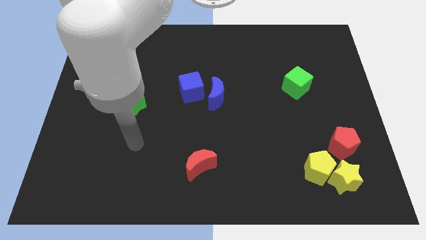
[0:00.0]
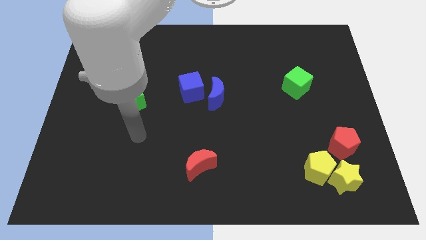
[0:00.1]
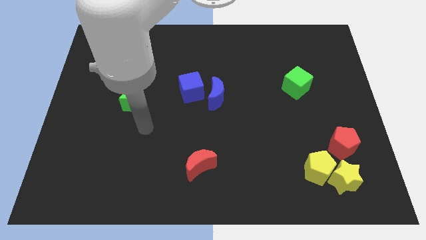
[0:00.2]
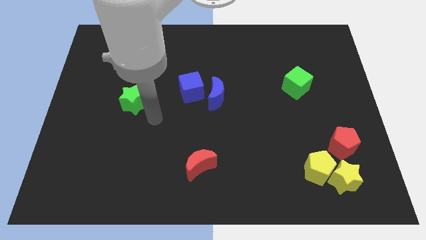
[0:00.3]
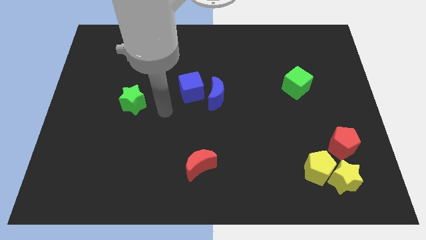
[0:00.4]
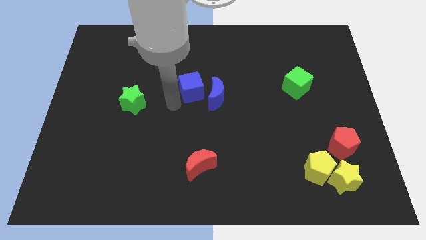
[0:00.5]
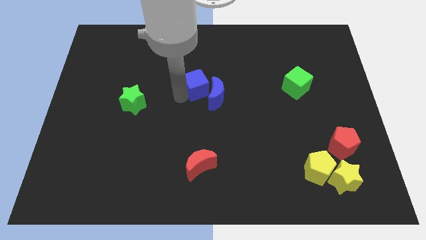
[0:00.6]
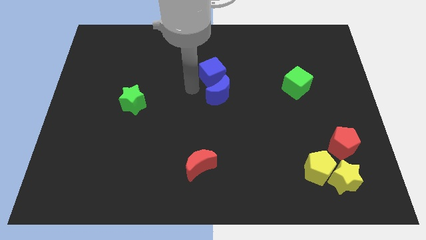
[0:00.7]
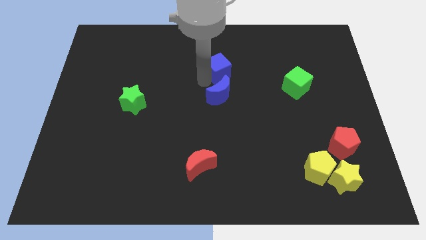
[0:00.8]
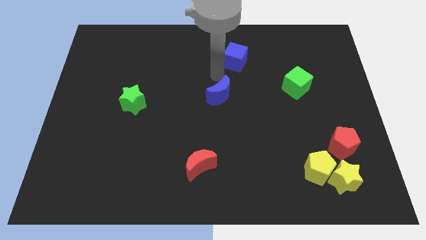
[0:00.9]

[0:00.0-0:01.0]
pull the blue moon apart from the blue cube

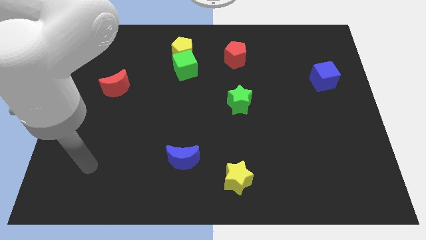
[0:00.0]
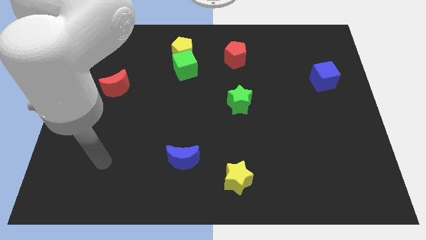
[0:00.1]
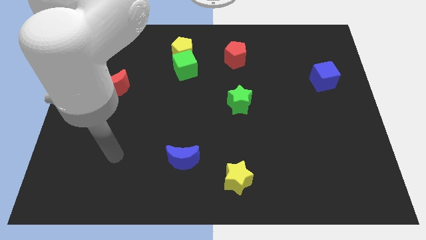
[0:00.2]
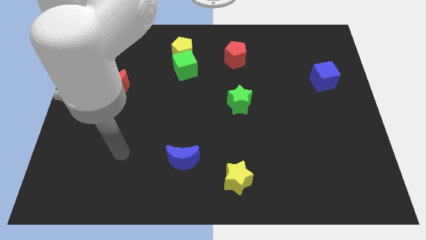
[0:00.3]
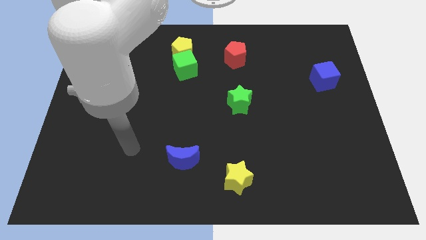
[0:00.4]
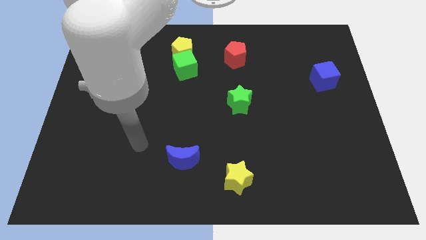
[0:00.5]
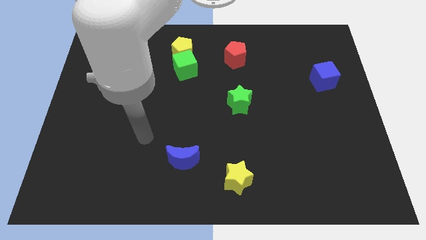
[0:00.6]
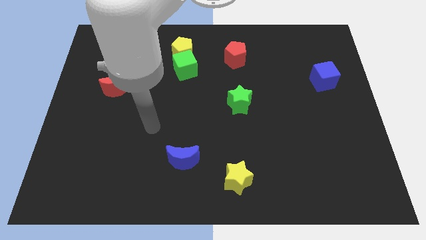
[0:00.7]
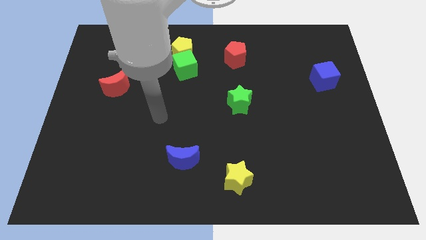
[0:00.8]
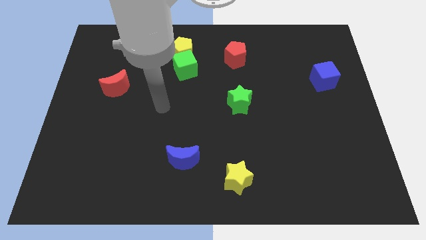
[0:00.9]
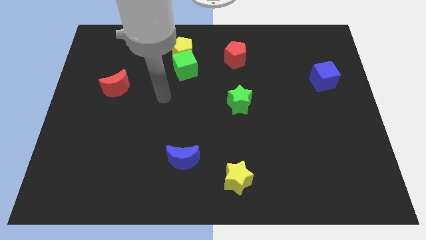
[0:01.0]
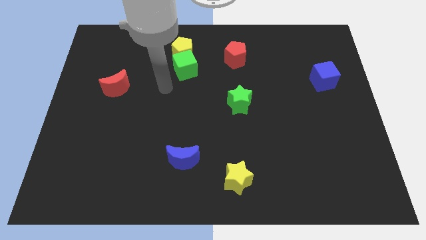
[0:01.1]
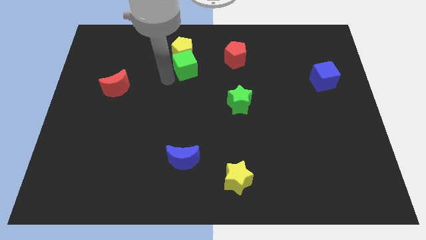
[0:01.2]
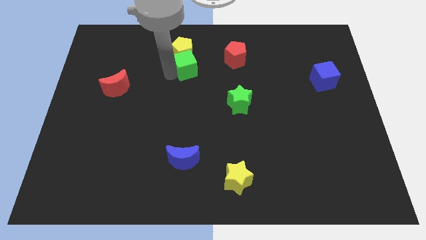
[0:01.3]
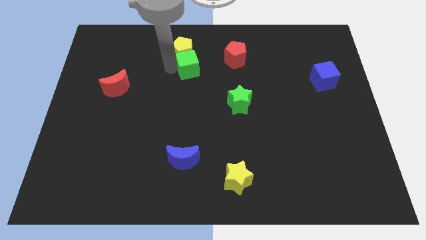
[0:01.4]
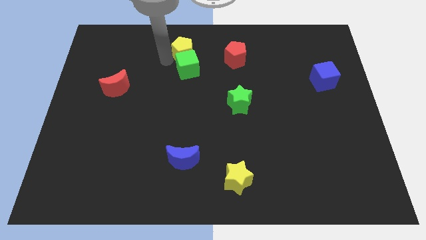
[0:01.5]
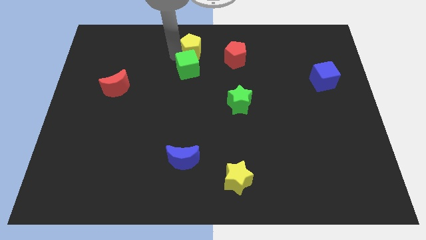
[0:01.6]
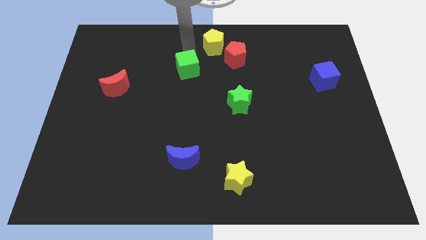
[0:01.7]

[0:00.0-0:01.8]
move the green cube away from the yellow pentagon

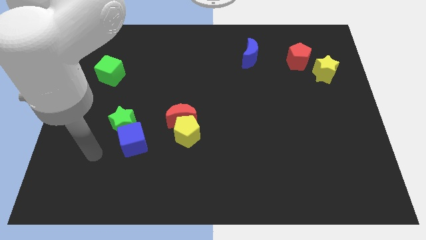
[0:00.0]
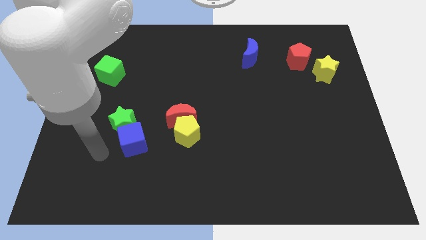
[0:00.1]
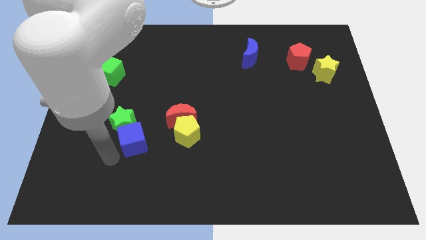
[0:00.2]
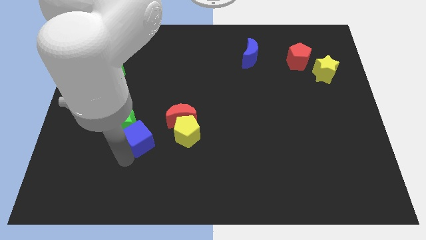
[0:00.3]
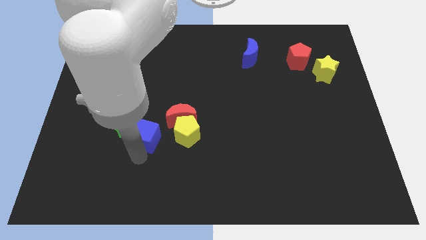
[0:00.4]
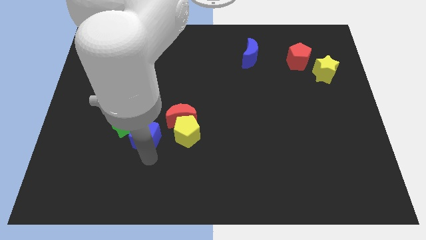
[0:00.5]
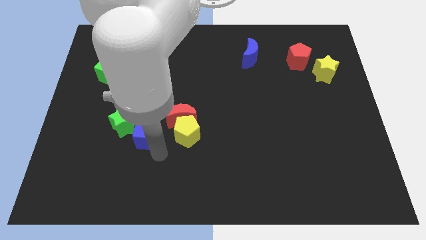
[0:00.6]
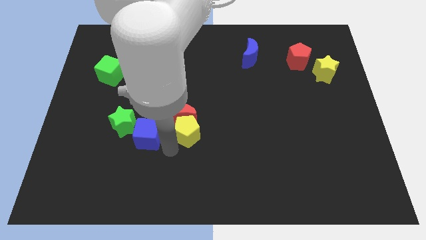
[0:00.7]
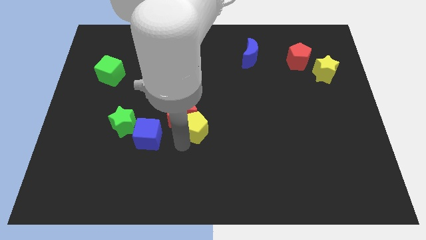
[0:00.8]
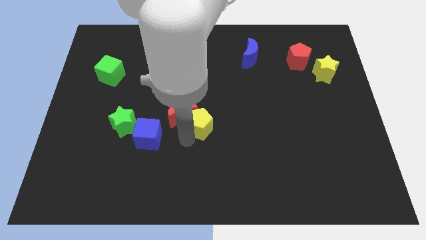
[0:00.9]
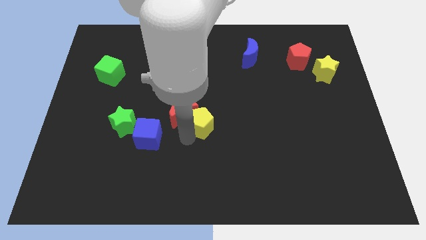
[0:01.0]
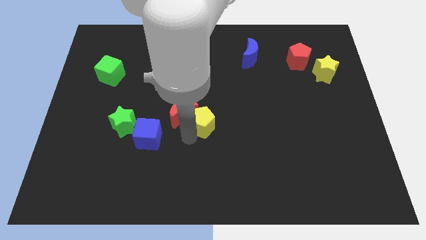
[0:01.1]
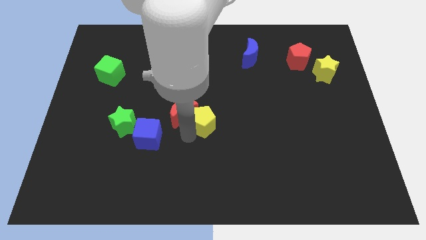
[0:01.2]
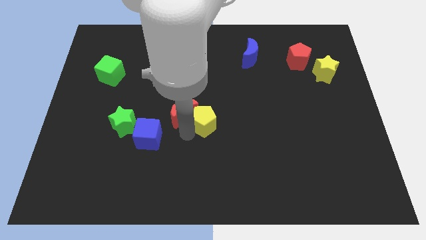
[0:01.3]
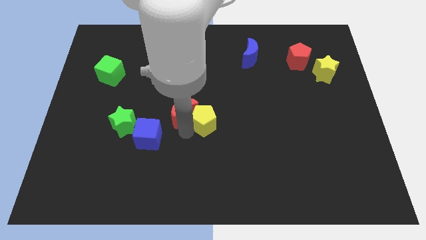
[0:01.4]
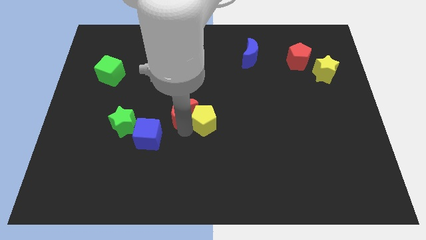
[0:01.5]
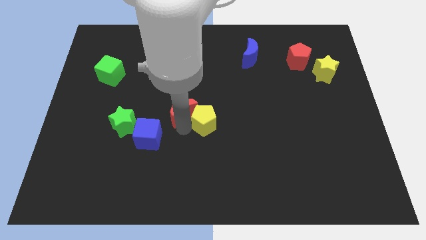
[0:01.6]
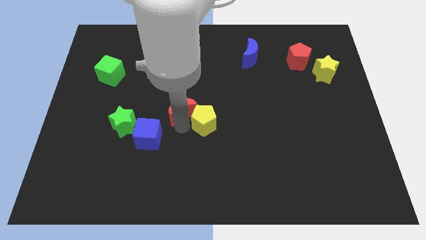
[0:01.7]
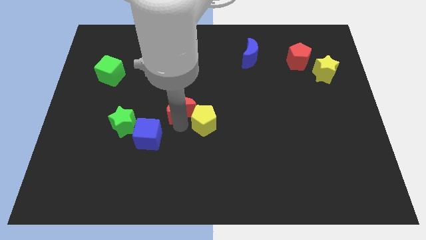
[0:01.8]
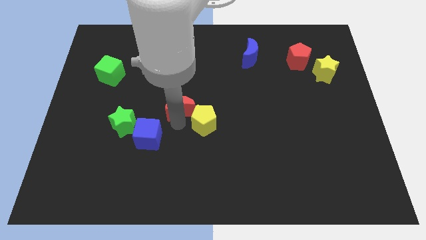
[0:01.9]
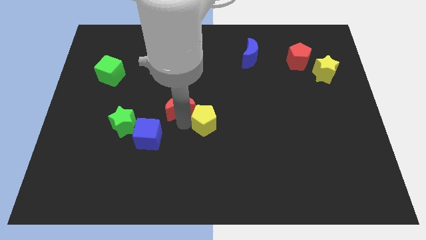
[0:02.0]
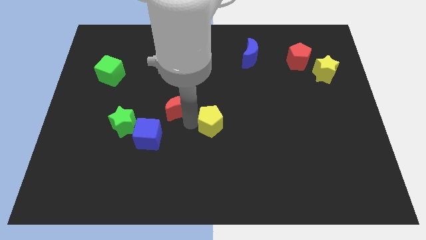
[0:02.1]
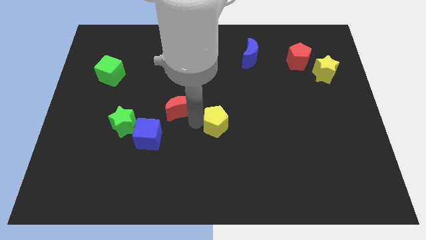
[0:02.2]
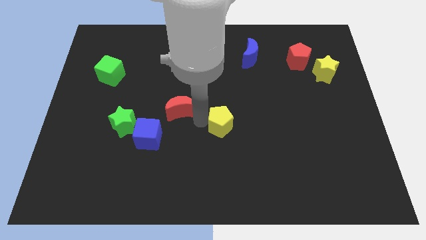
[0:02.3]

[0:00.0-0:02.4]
pull the red moon apart from the yellow pentagon

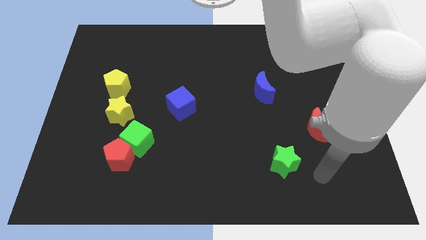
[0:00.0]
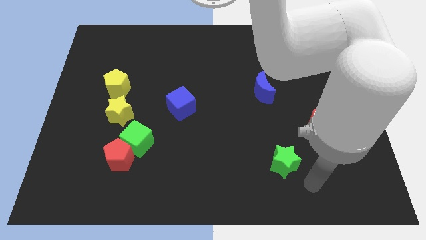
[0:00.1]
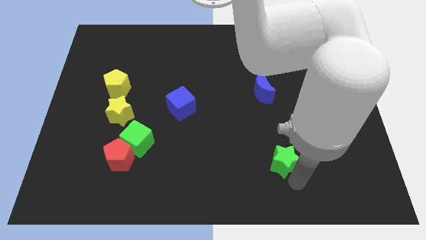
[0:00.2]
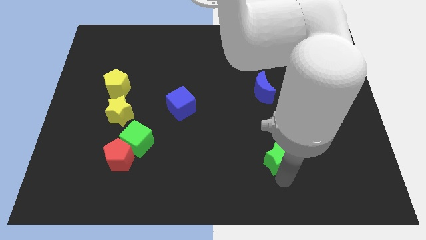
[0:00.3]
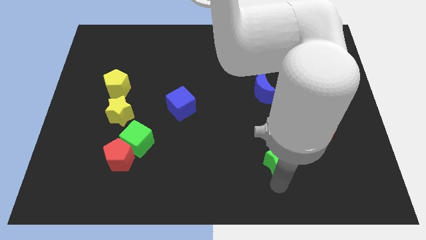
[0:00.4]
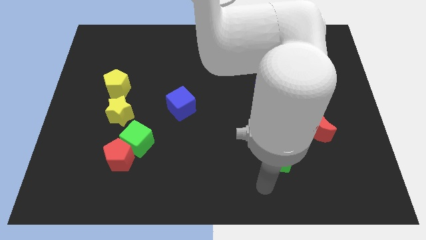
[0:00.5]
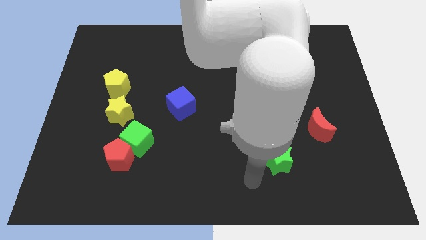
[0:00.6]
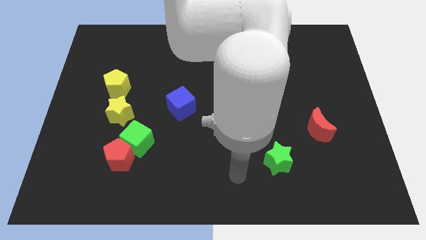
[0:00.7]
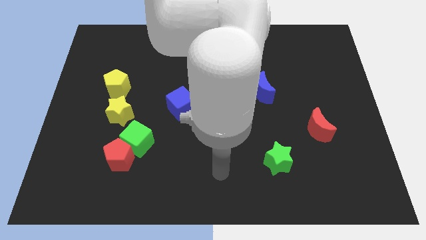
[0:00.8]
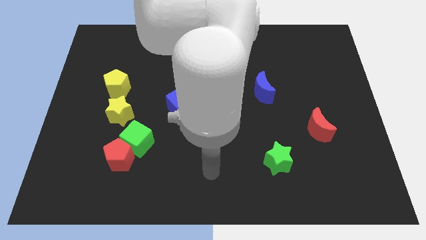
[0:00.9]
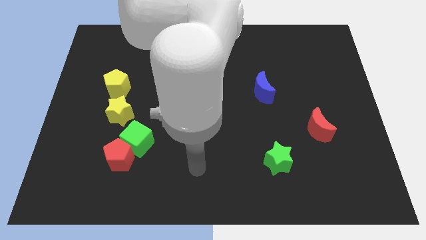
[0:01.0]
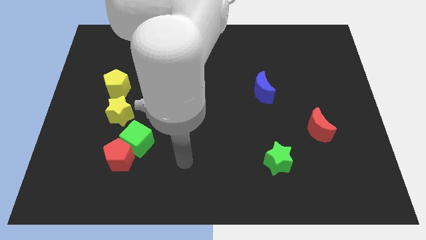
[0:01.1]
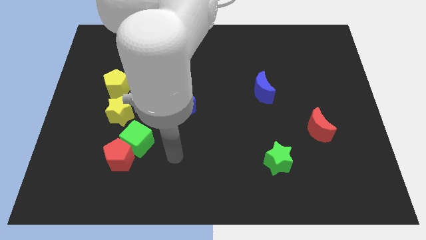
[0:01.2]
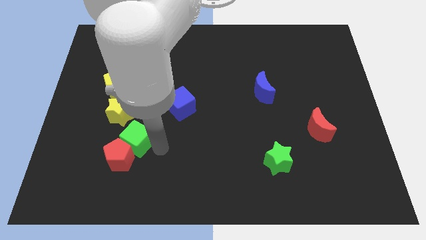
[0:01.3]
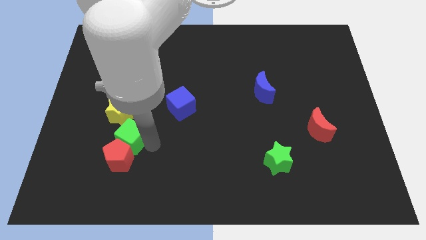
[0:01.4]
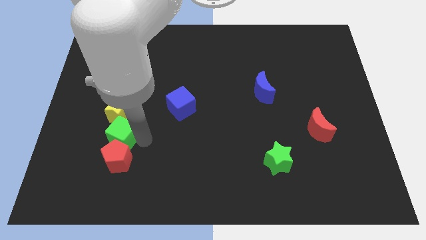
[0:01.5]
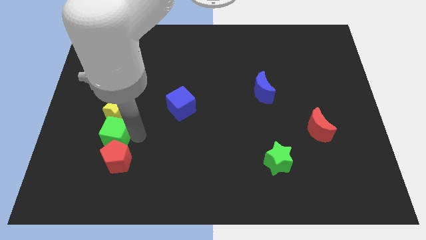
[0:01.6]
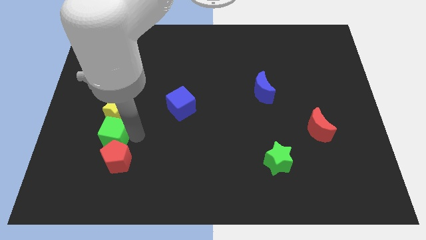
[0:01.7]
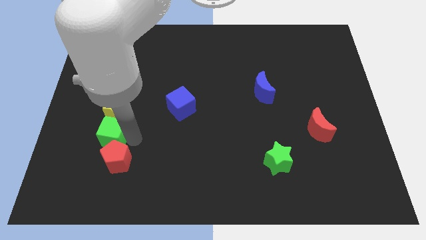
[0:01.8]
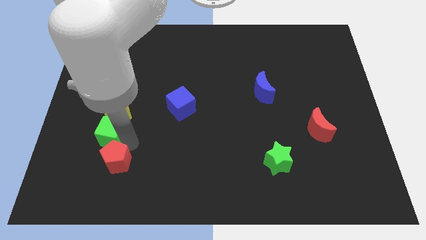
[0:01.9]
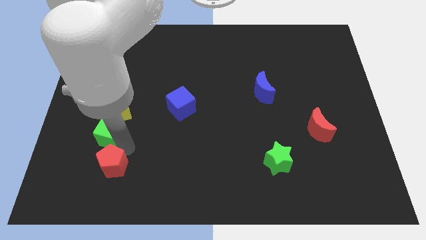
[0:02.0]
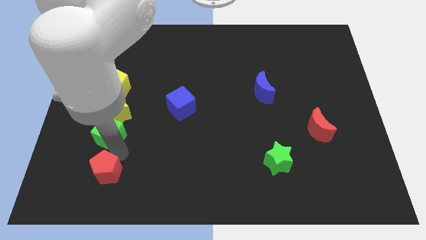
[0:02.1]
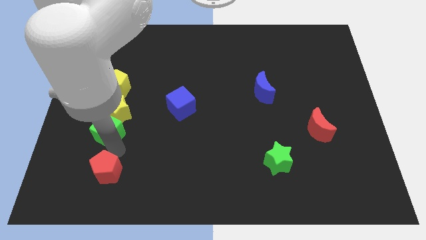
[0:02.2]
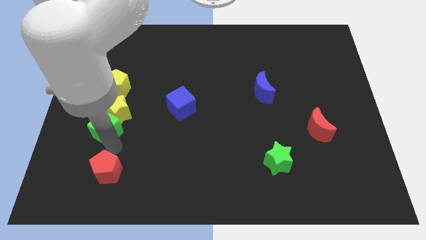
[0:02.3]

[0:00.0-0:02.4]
pull the red pentagon apart from the green cube

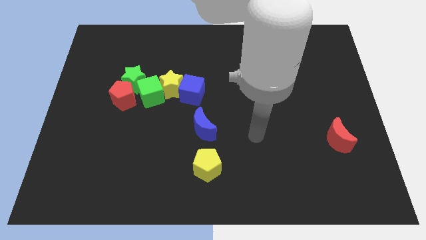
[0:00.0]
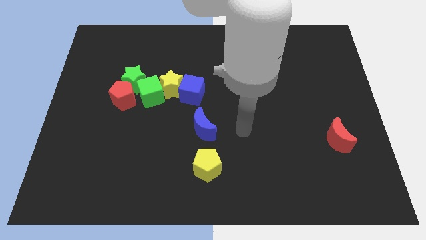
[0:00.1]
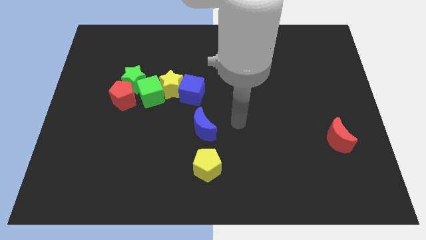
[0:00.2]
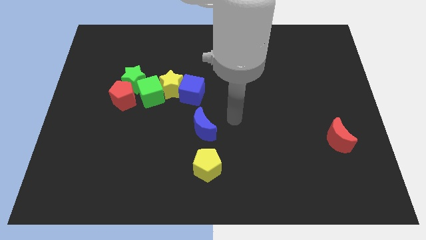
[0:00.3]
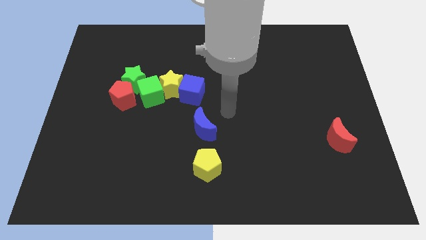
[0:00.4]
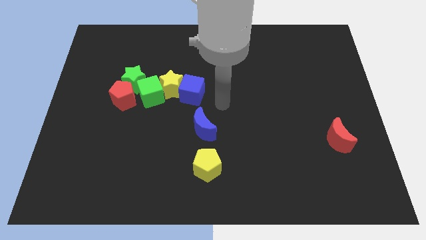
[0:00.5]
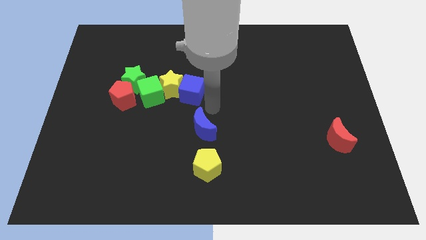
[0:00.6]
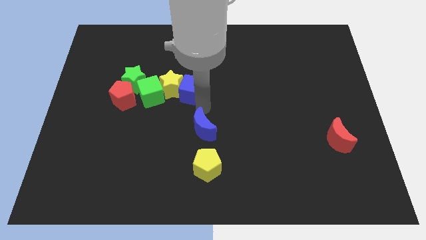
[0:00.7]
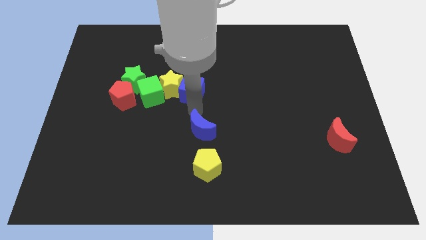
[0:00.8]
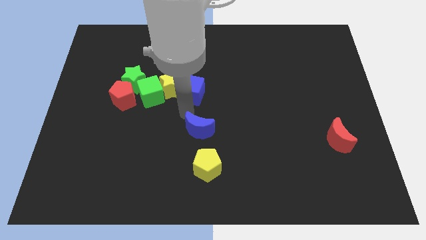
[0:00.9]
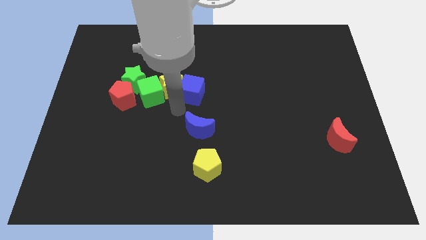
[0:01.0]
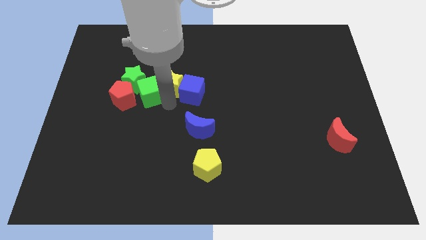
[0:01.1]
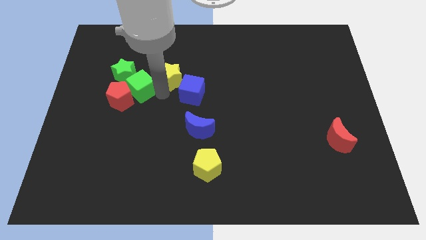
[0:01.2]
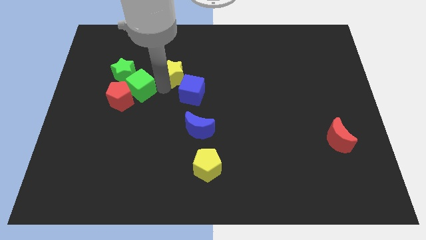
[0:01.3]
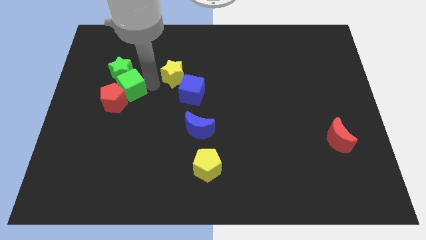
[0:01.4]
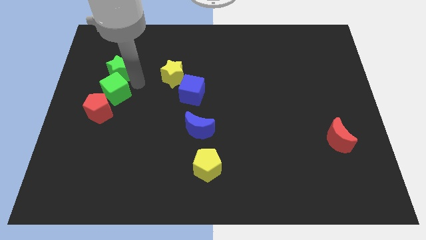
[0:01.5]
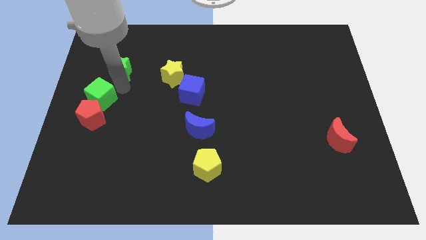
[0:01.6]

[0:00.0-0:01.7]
pull the red pentagon apart from the green star and green cube
